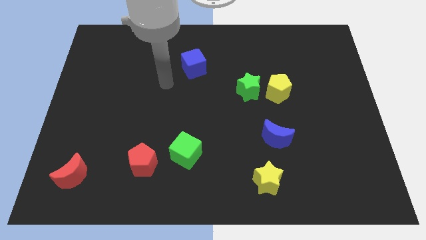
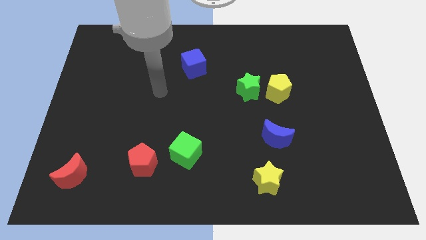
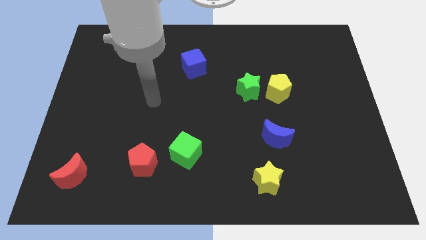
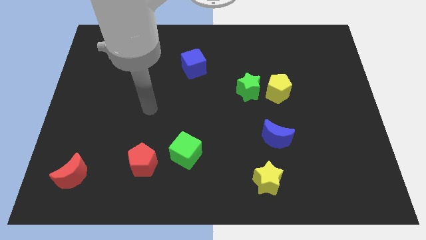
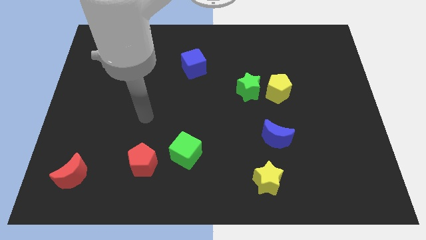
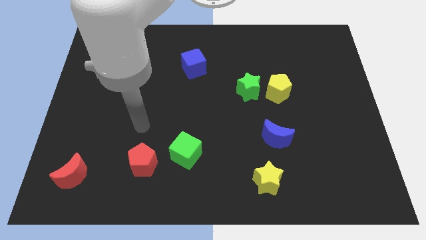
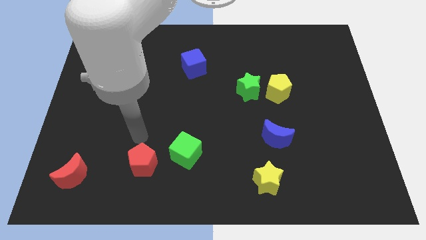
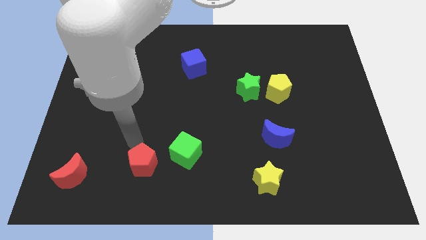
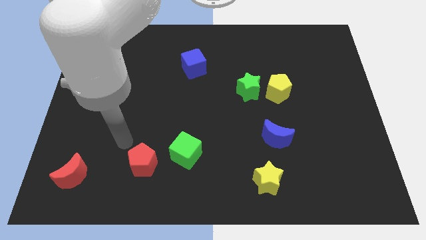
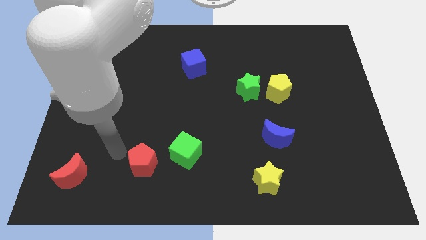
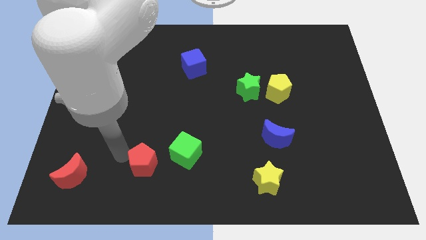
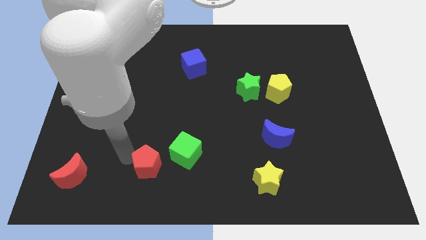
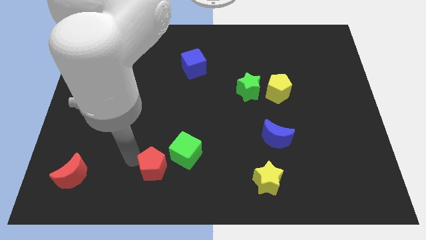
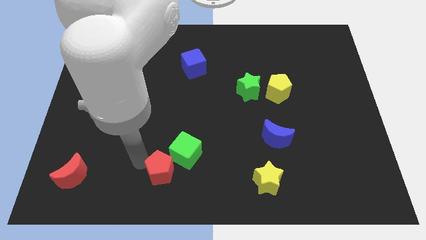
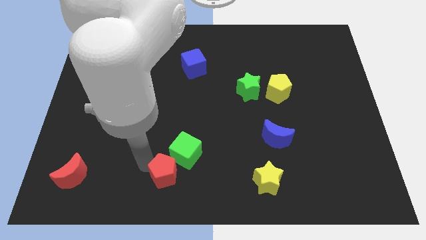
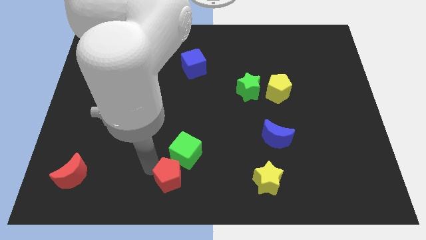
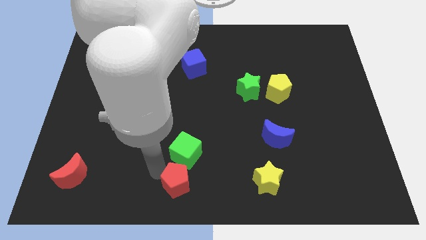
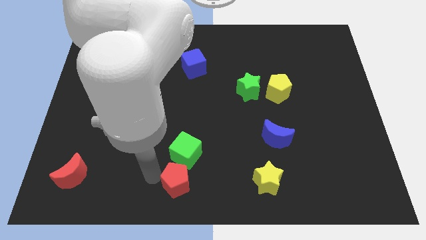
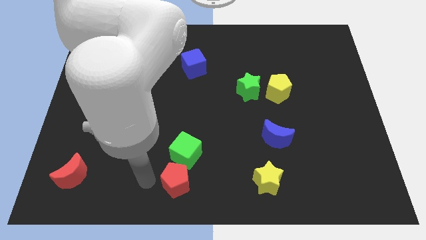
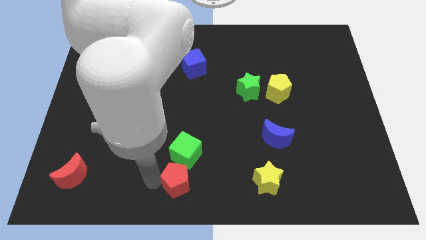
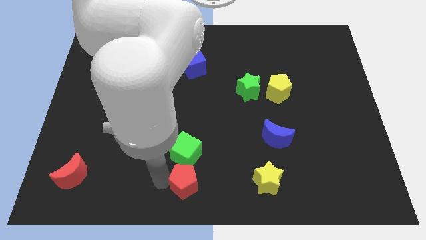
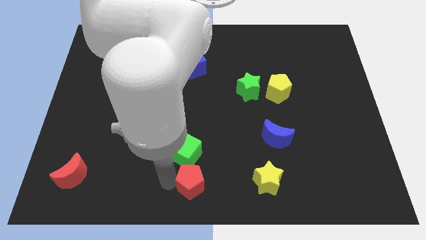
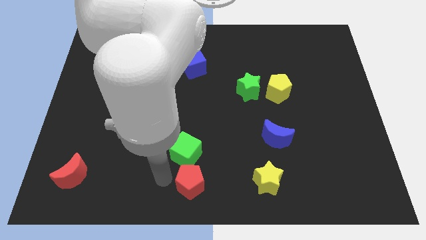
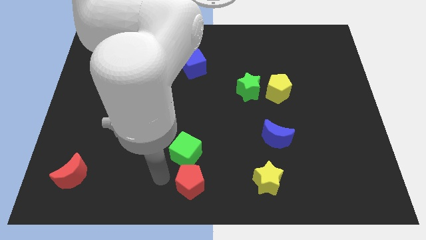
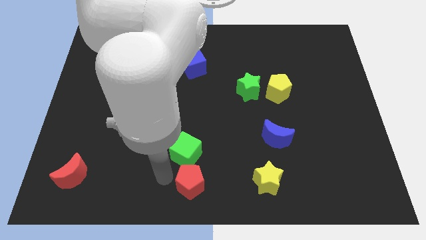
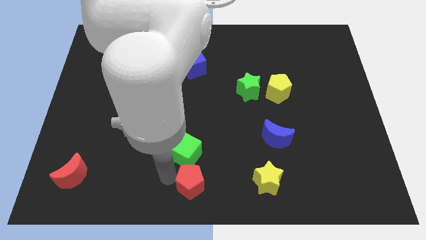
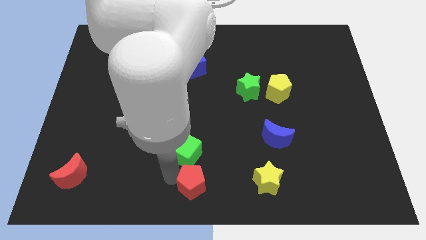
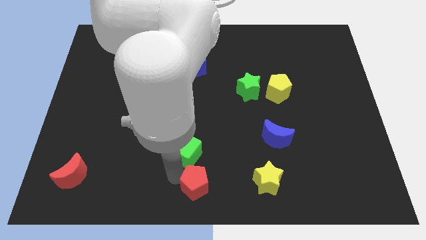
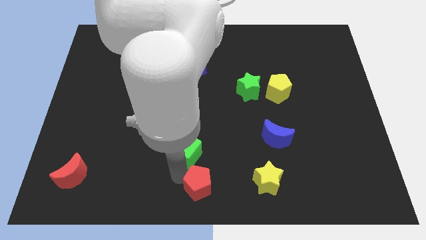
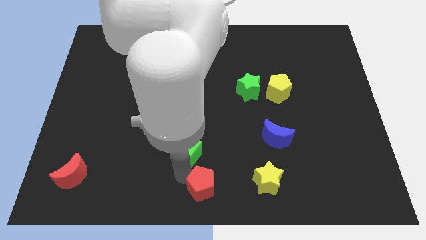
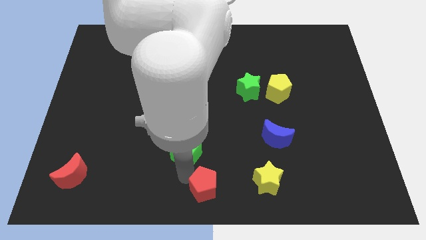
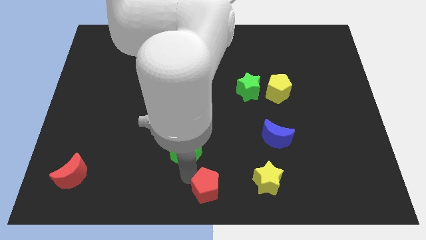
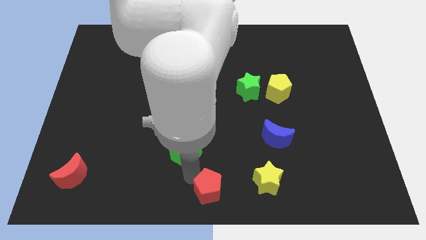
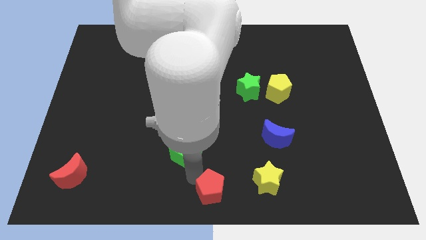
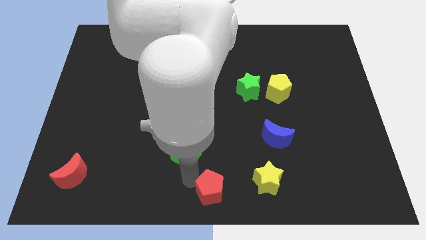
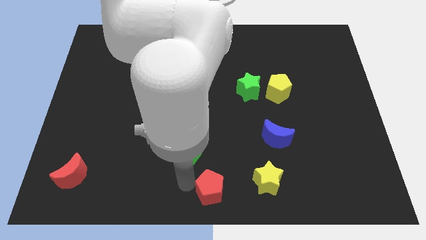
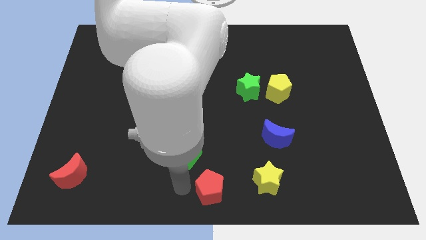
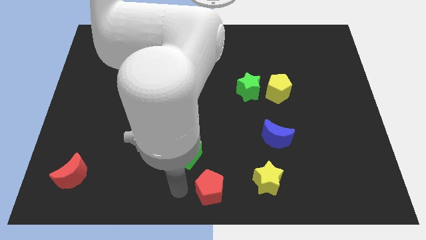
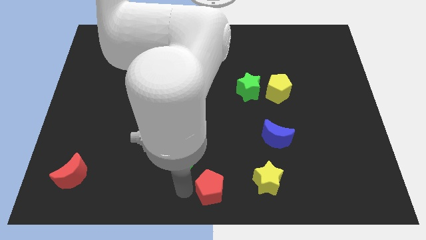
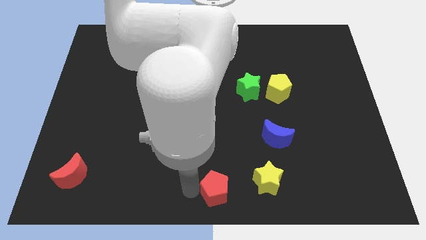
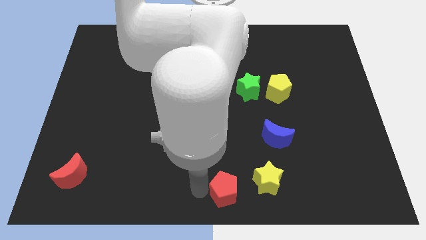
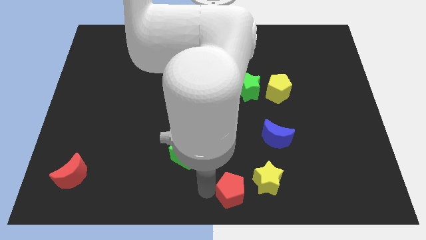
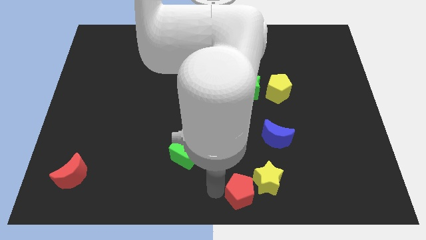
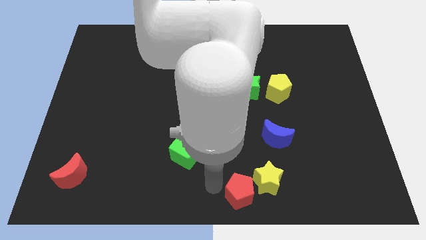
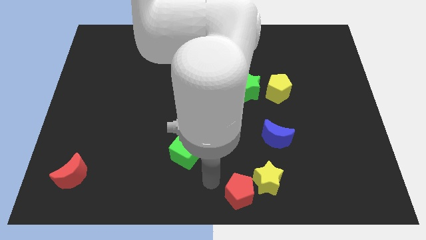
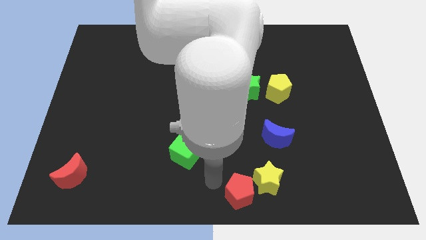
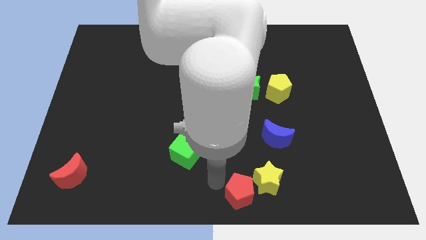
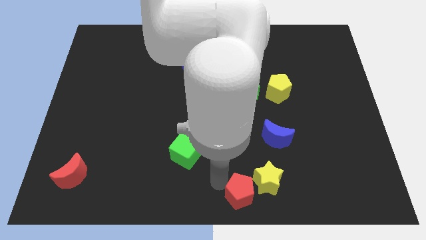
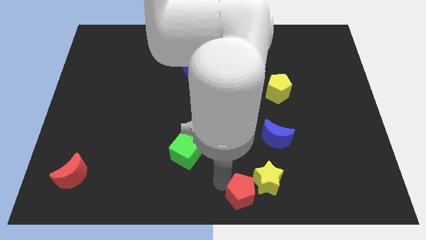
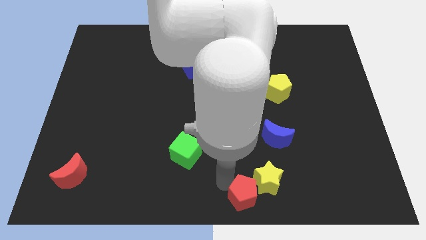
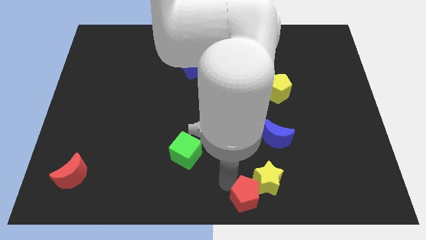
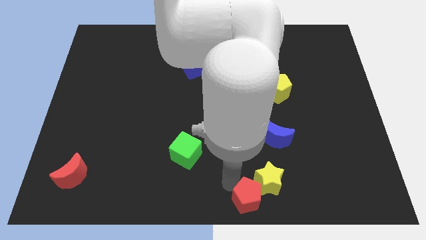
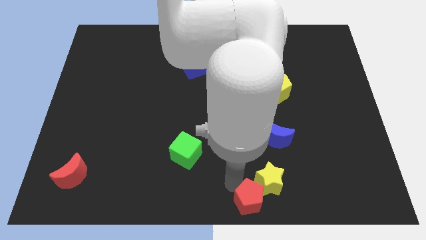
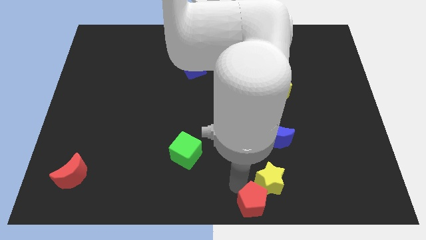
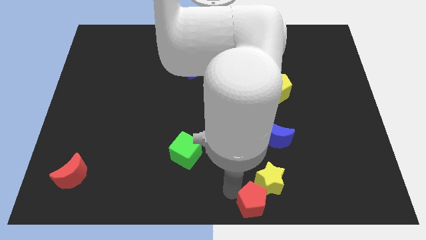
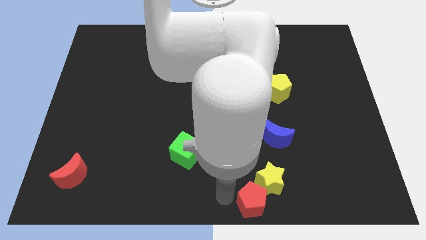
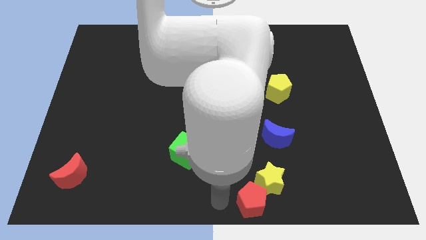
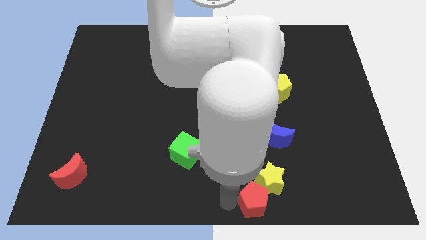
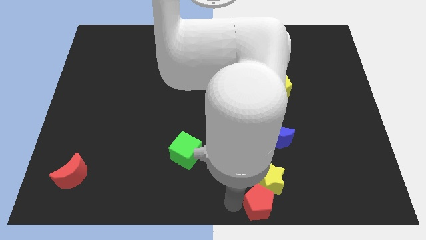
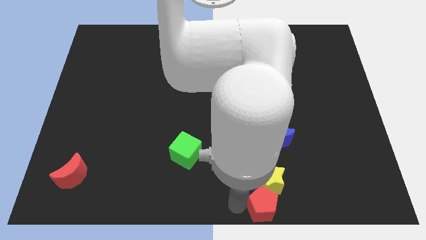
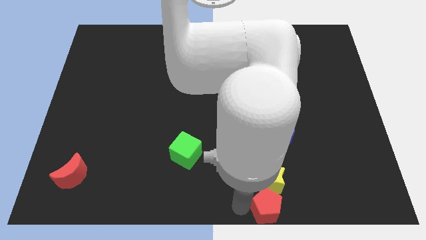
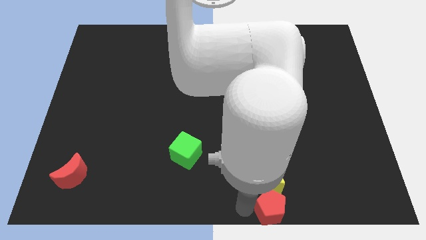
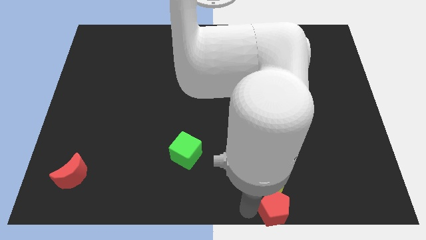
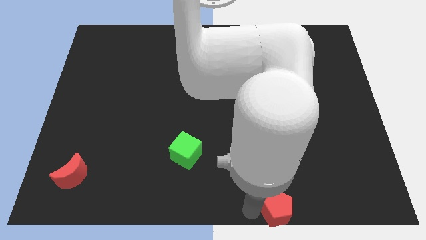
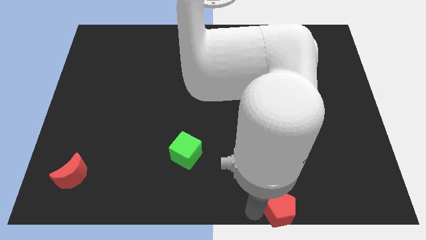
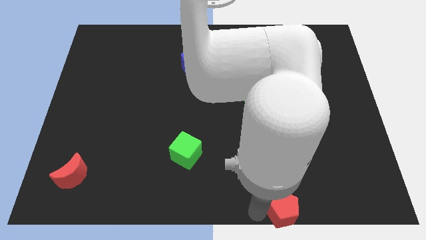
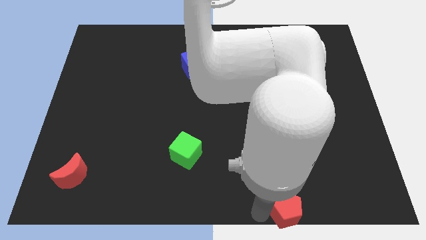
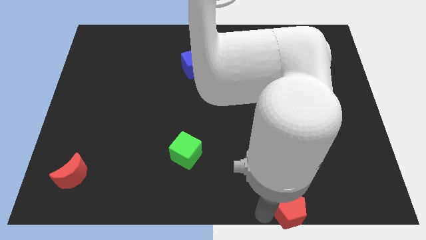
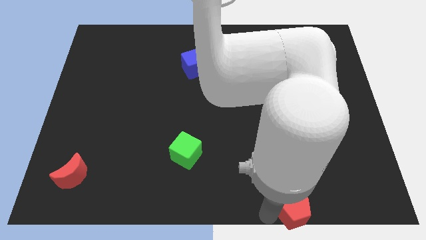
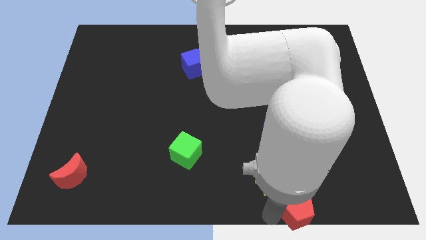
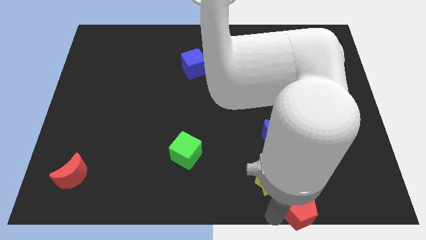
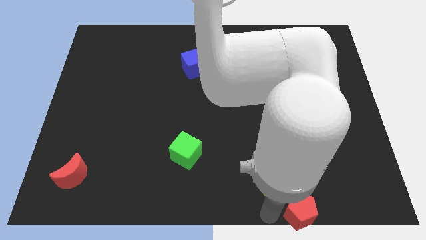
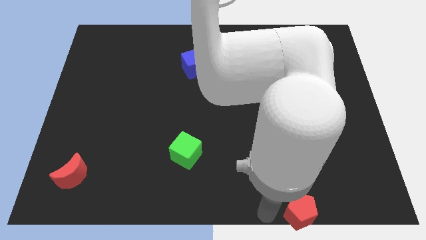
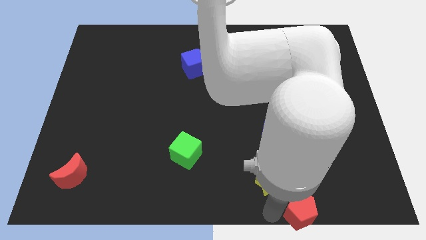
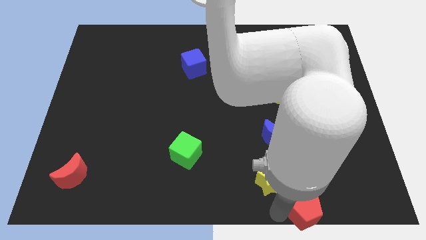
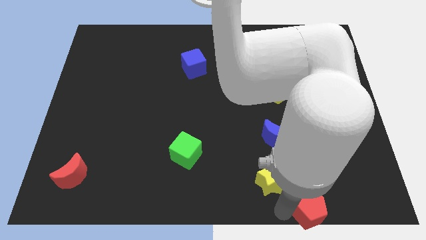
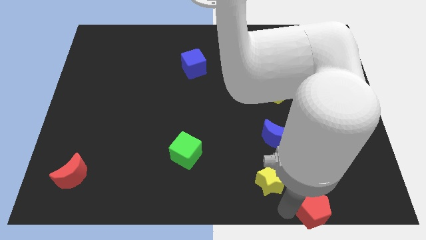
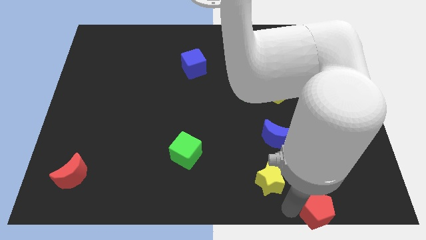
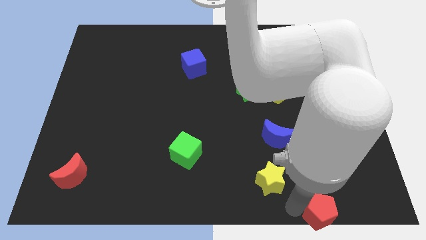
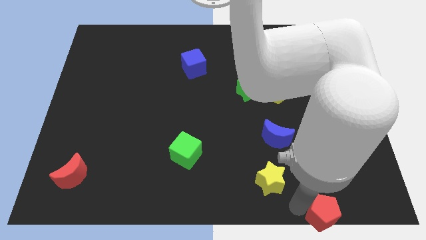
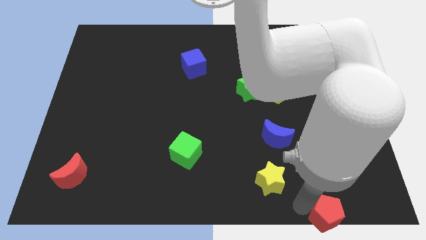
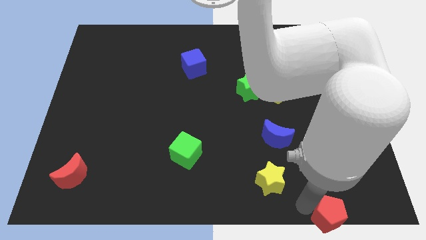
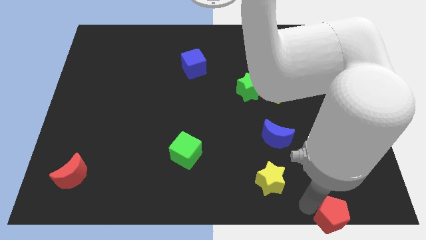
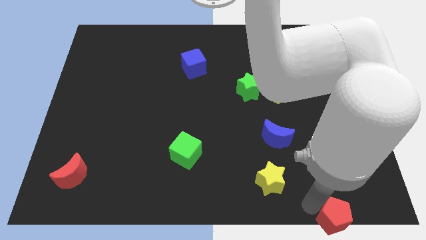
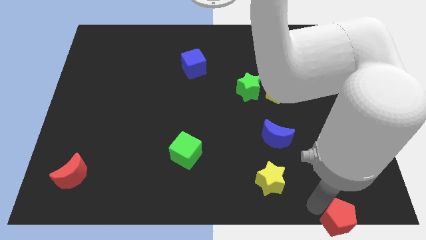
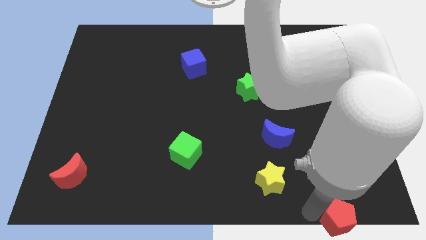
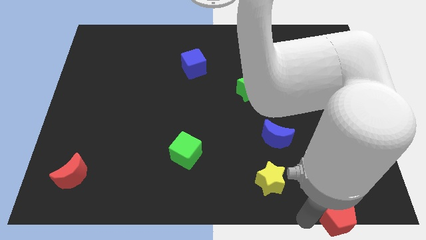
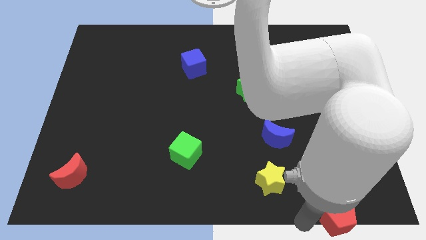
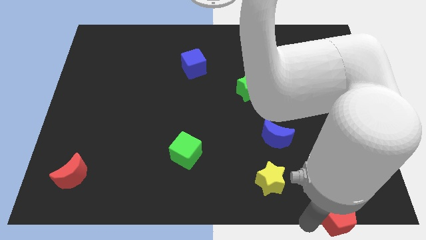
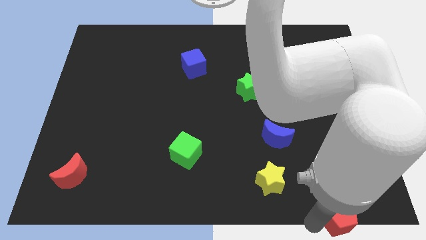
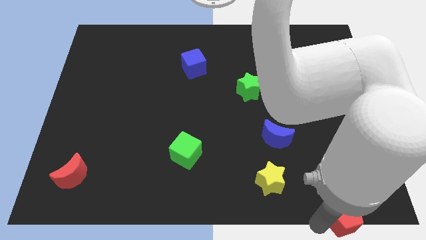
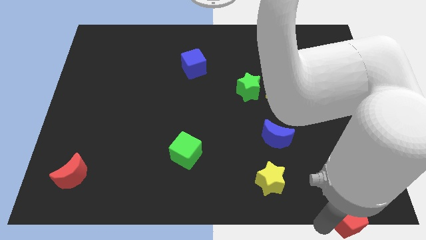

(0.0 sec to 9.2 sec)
put the red pentagon to the bottom right corner
